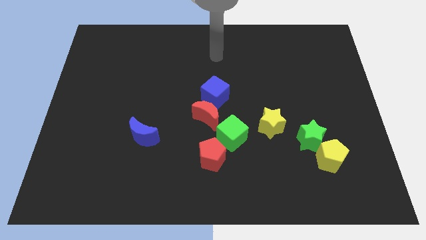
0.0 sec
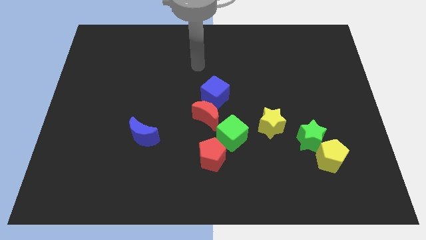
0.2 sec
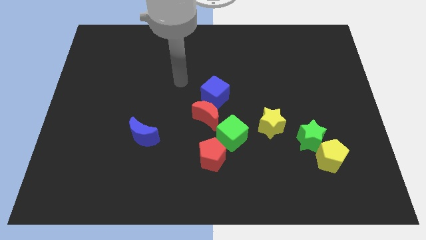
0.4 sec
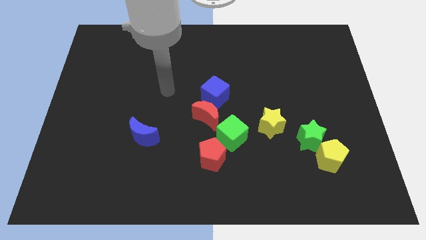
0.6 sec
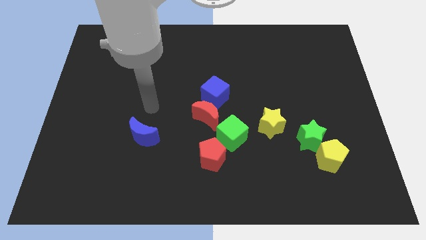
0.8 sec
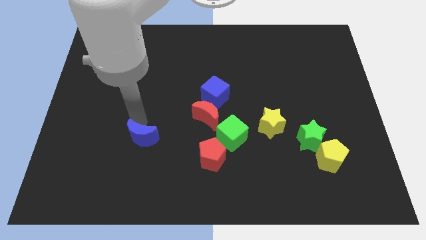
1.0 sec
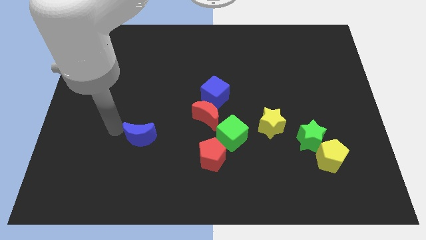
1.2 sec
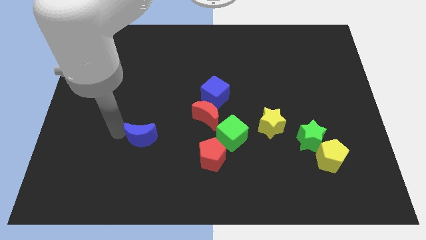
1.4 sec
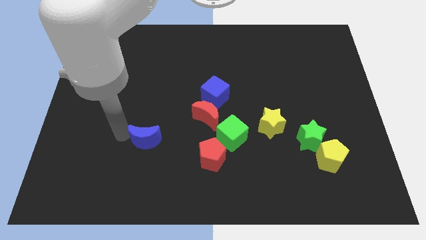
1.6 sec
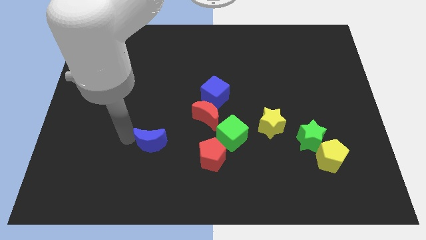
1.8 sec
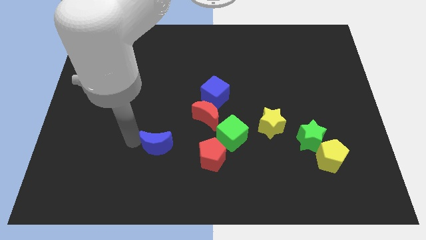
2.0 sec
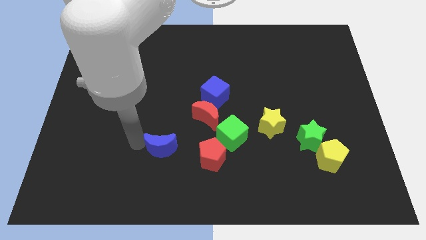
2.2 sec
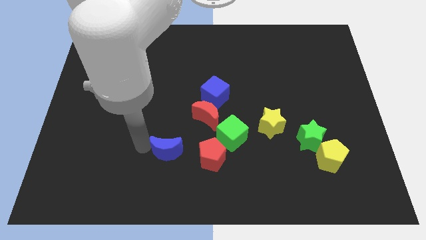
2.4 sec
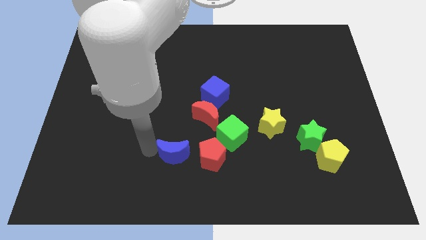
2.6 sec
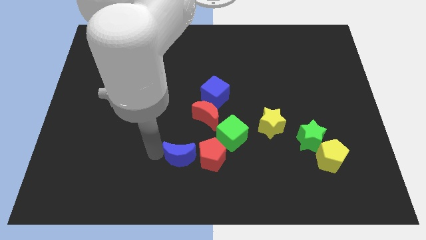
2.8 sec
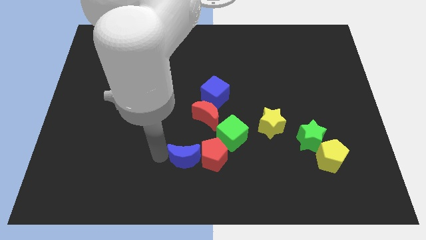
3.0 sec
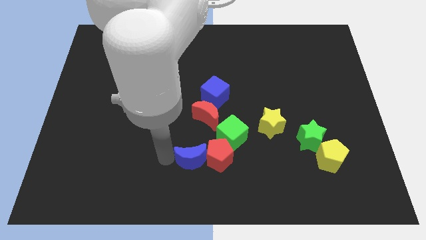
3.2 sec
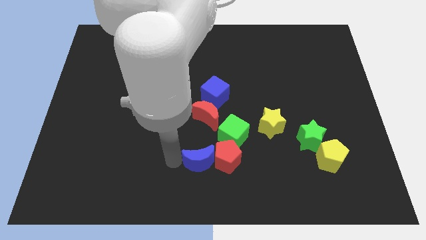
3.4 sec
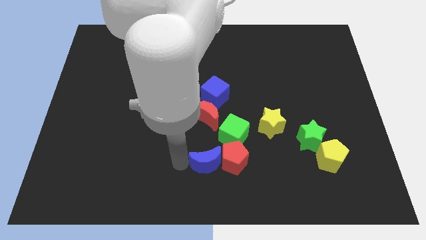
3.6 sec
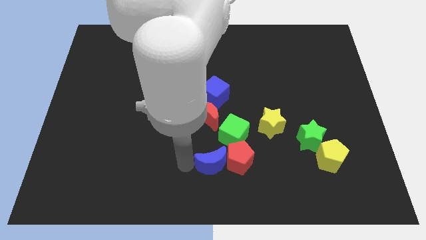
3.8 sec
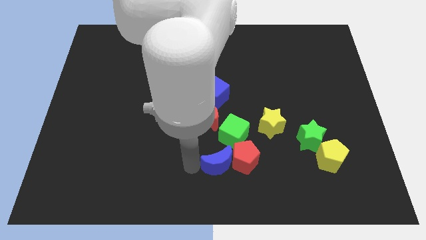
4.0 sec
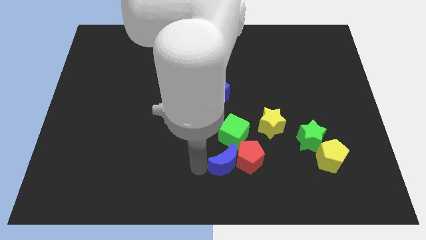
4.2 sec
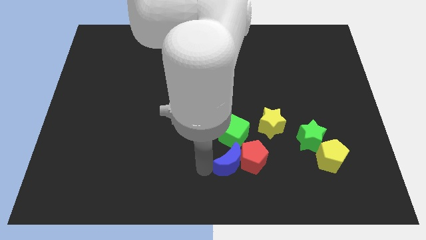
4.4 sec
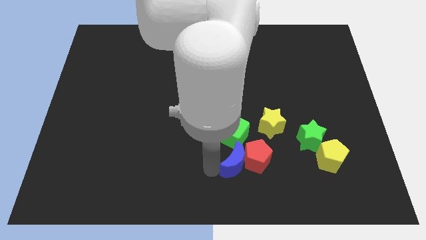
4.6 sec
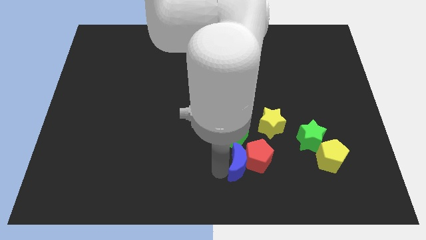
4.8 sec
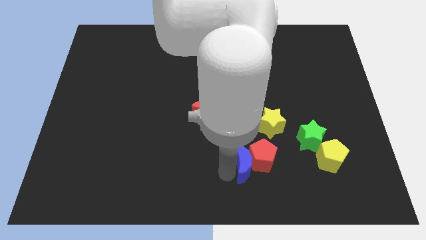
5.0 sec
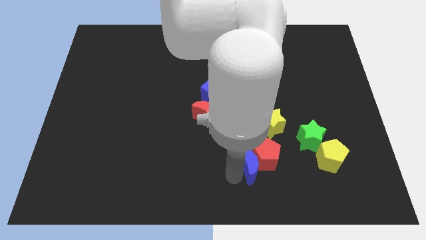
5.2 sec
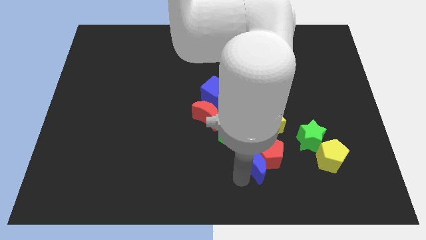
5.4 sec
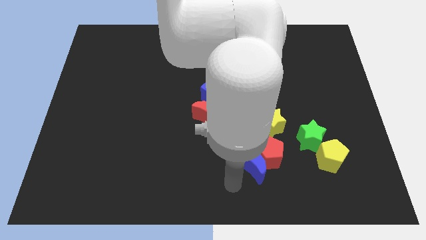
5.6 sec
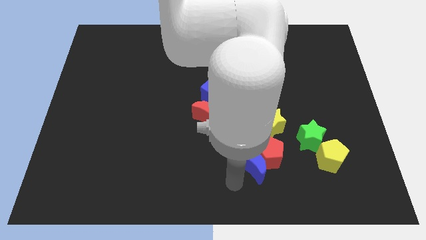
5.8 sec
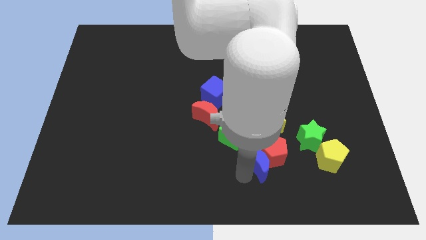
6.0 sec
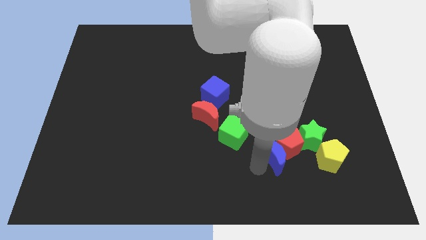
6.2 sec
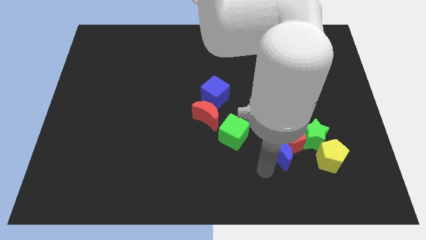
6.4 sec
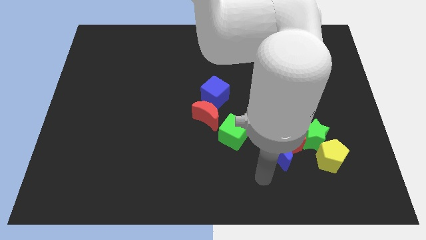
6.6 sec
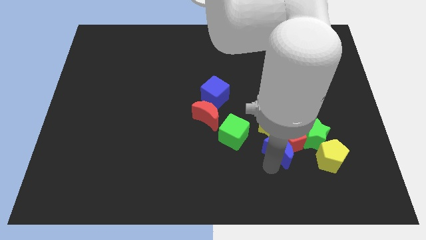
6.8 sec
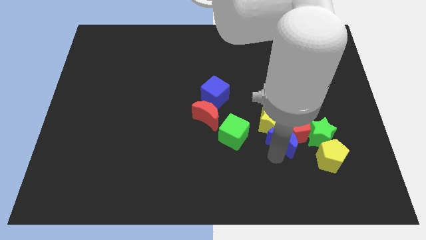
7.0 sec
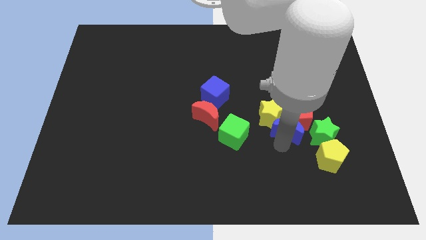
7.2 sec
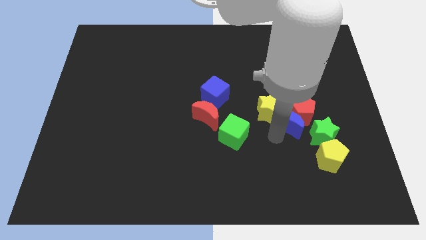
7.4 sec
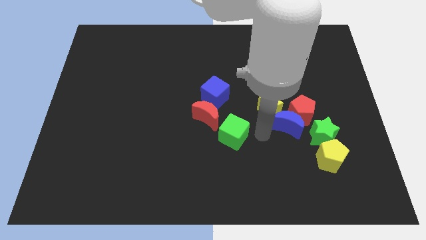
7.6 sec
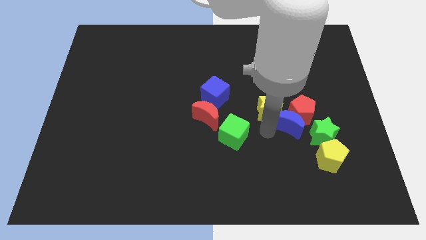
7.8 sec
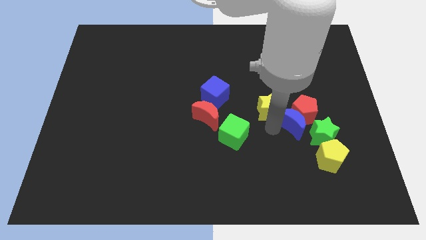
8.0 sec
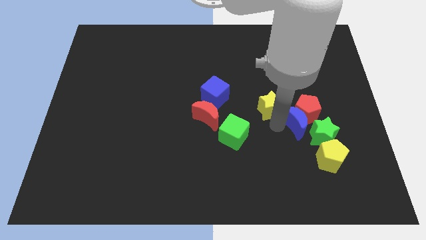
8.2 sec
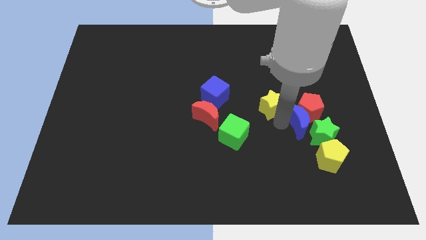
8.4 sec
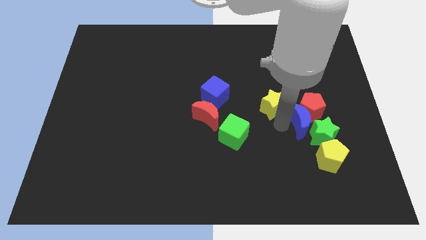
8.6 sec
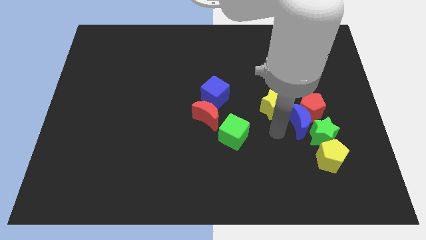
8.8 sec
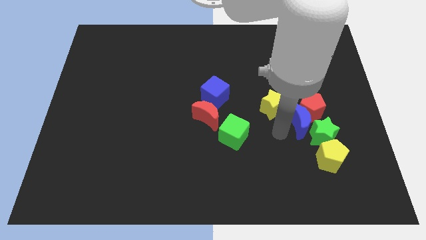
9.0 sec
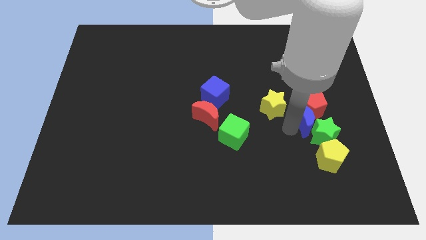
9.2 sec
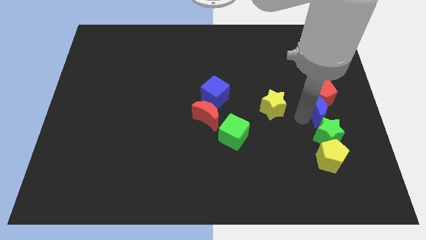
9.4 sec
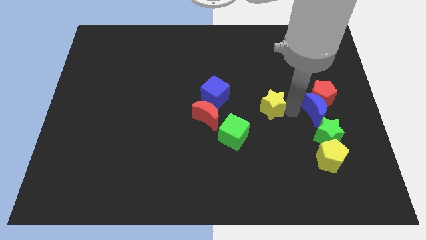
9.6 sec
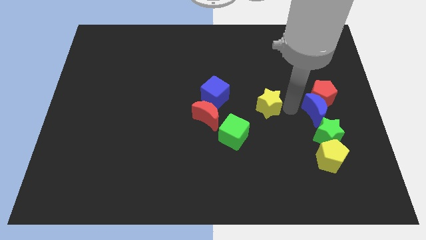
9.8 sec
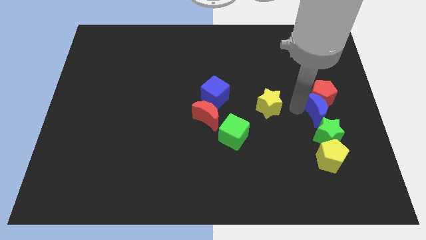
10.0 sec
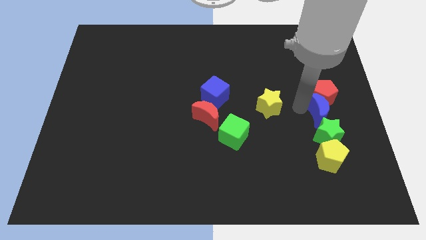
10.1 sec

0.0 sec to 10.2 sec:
push the blue moon to the top right of the green star
